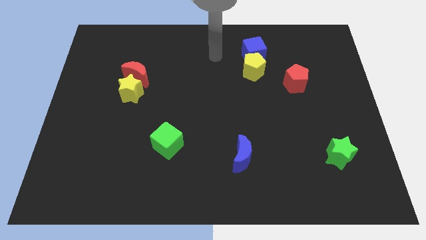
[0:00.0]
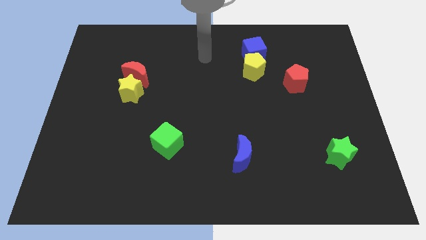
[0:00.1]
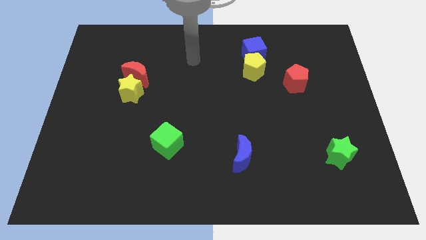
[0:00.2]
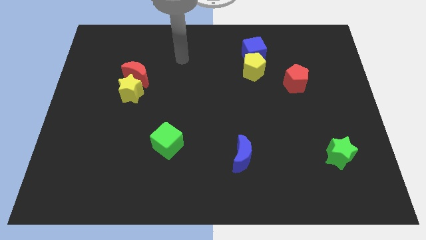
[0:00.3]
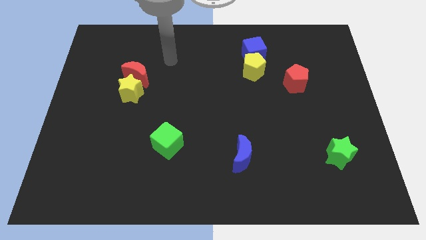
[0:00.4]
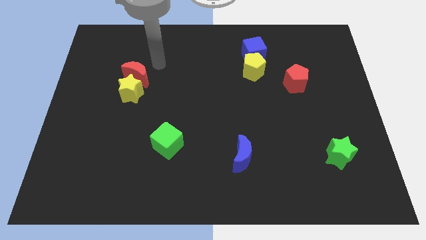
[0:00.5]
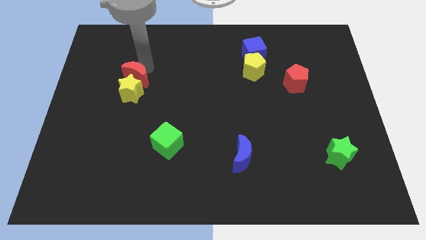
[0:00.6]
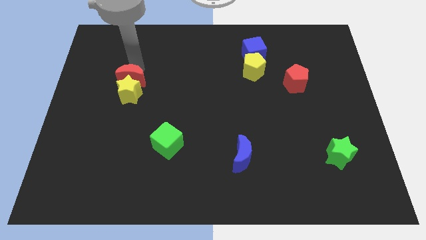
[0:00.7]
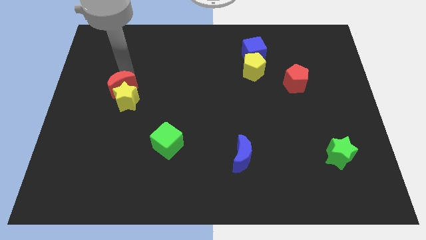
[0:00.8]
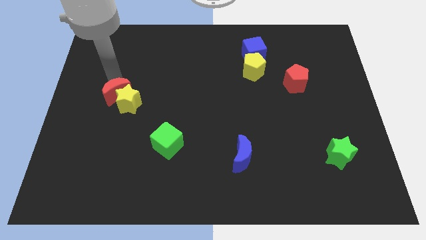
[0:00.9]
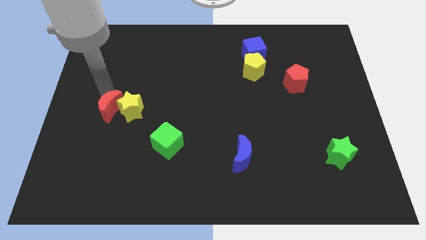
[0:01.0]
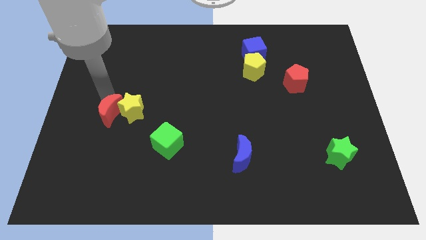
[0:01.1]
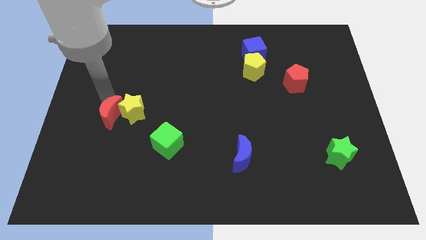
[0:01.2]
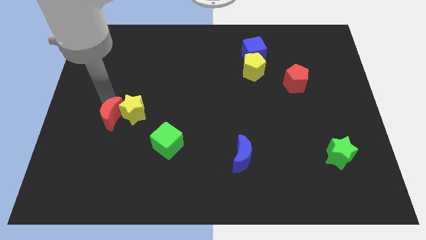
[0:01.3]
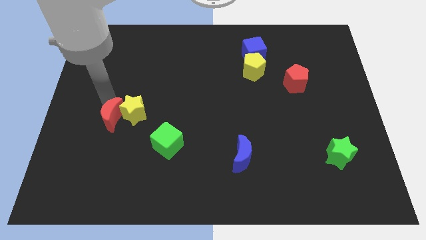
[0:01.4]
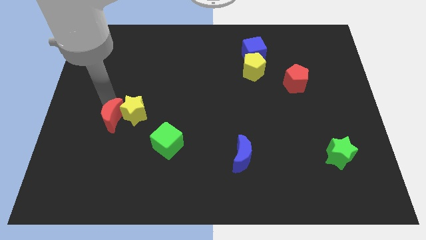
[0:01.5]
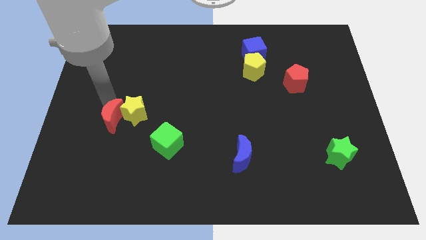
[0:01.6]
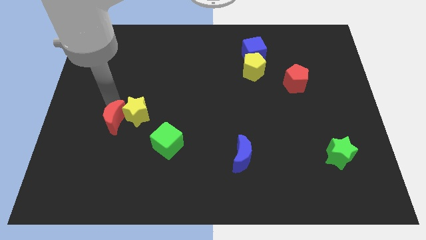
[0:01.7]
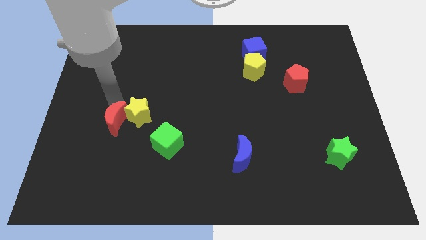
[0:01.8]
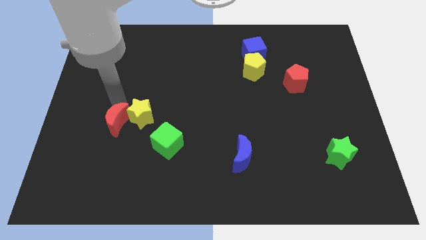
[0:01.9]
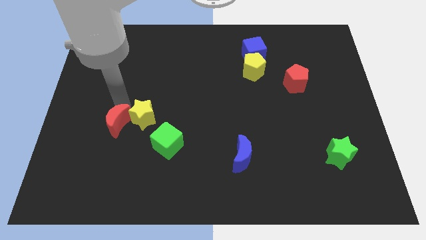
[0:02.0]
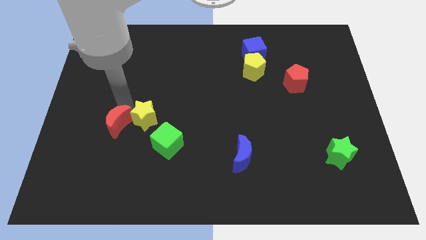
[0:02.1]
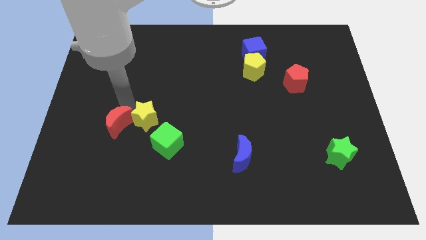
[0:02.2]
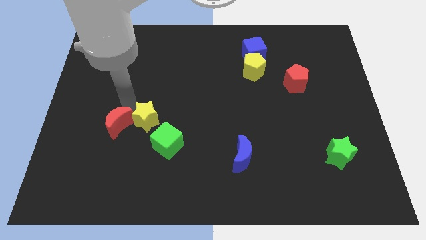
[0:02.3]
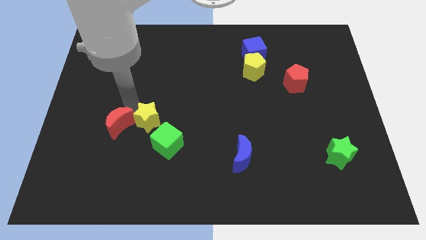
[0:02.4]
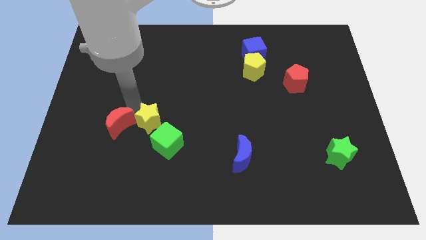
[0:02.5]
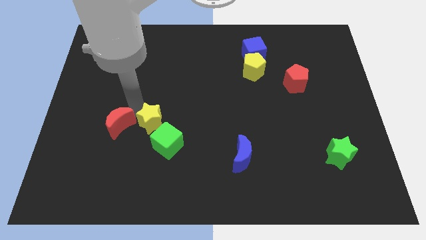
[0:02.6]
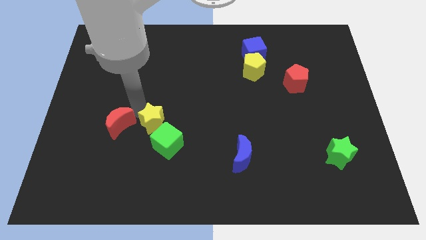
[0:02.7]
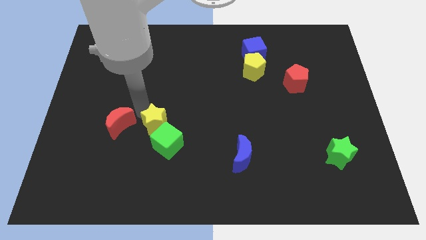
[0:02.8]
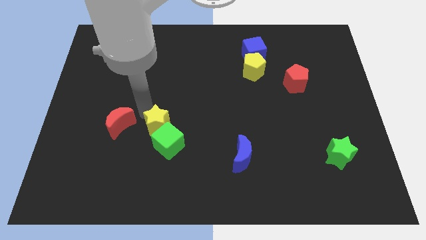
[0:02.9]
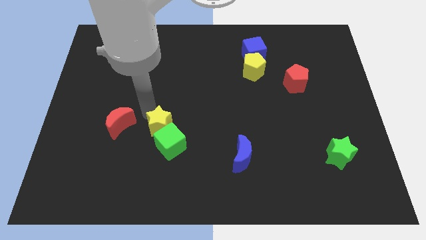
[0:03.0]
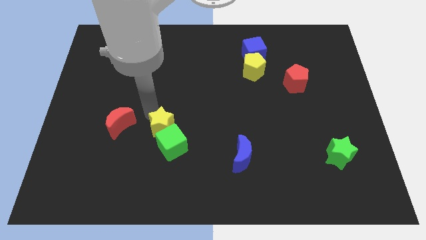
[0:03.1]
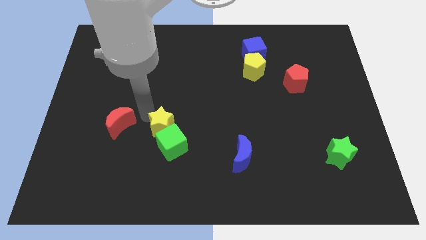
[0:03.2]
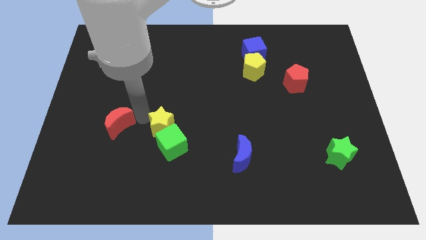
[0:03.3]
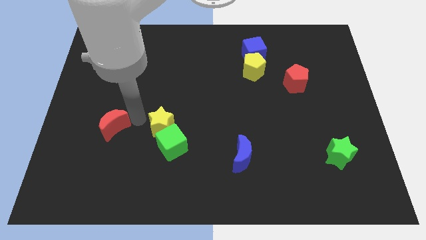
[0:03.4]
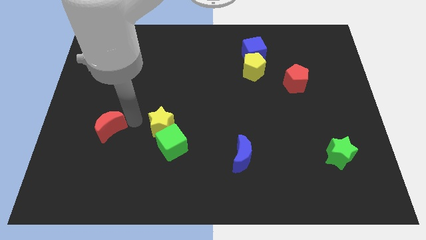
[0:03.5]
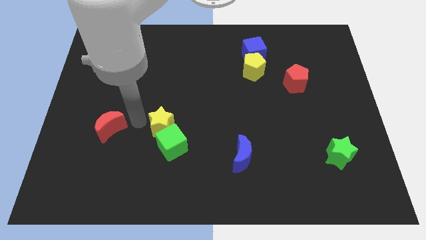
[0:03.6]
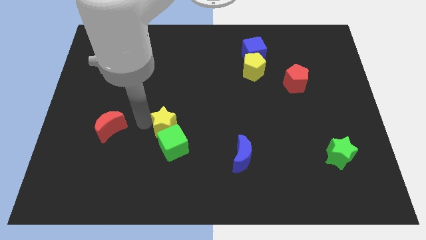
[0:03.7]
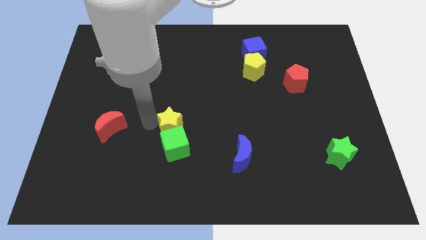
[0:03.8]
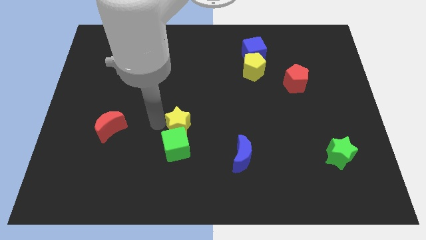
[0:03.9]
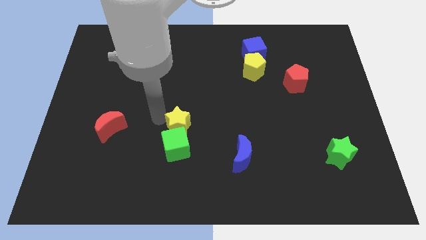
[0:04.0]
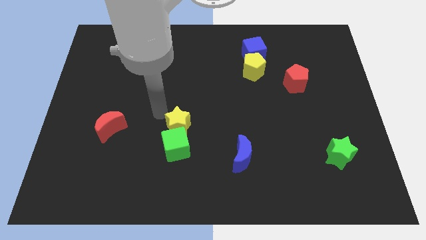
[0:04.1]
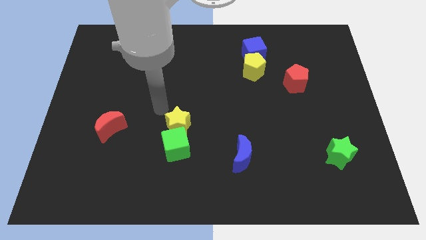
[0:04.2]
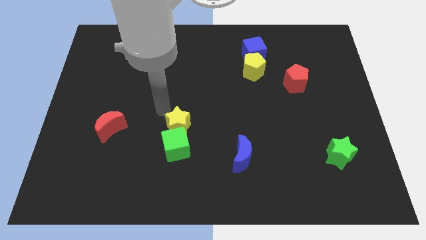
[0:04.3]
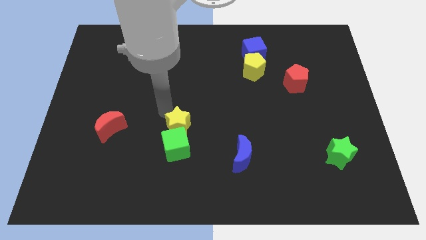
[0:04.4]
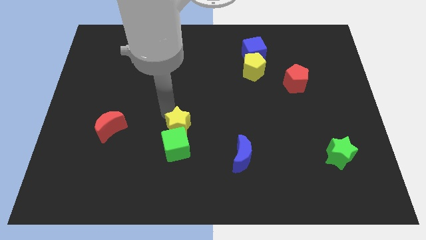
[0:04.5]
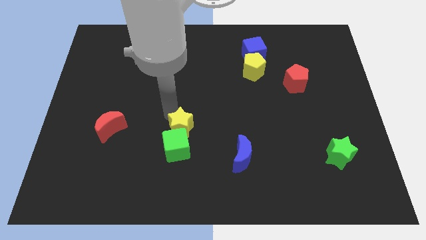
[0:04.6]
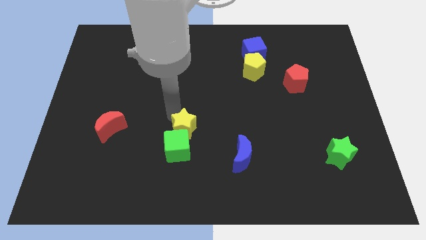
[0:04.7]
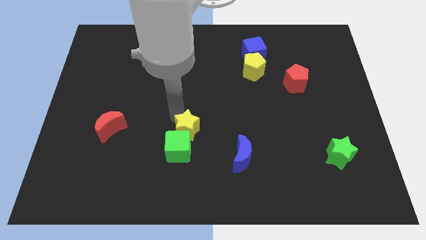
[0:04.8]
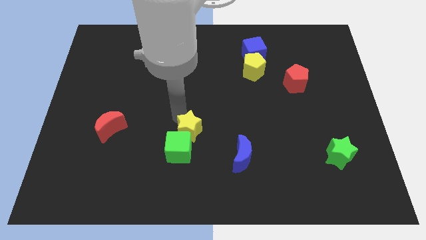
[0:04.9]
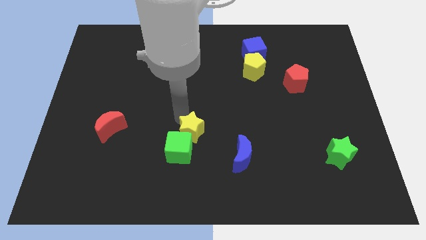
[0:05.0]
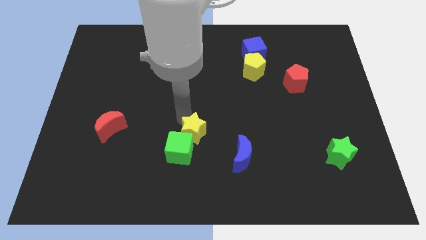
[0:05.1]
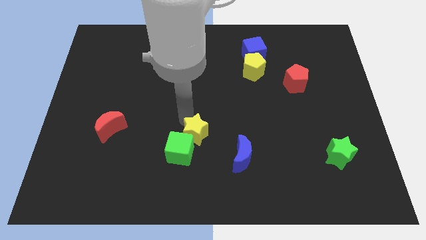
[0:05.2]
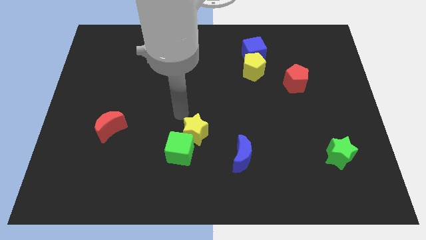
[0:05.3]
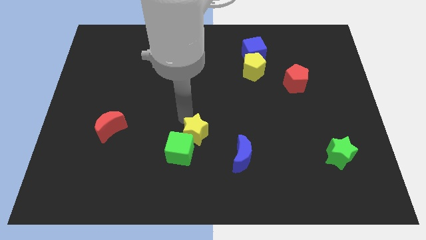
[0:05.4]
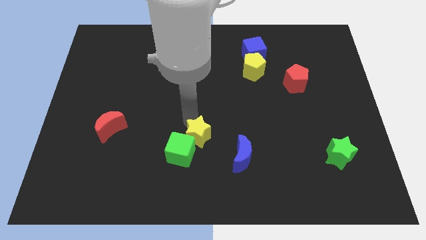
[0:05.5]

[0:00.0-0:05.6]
slide the yellow star downwards and right diagonally

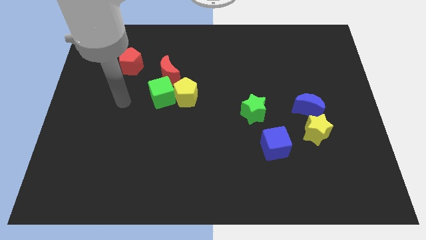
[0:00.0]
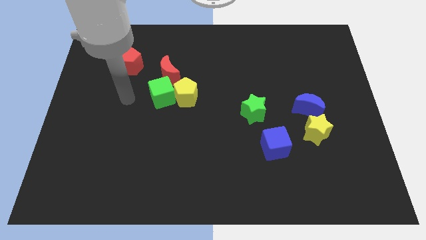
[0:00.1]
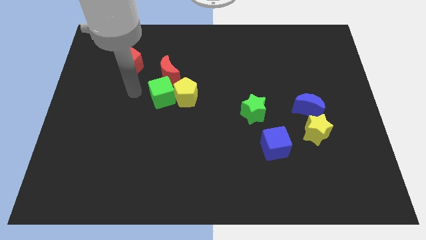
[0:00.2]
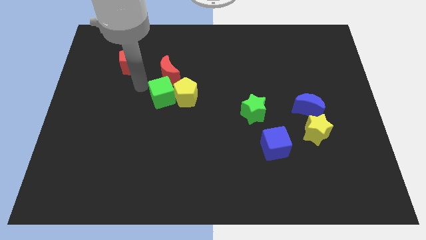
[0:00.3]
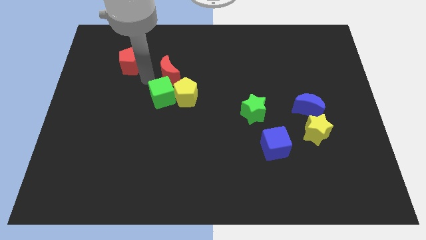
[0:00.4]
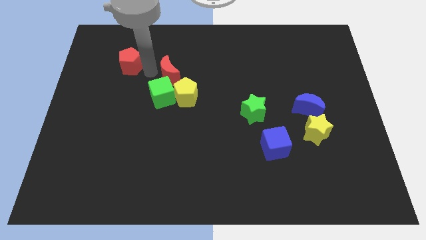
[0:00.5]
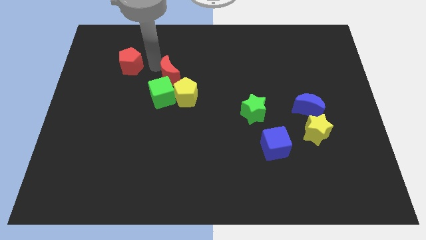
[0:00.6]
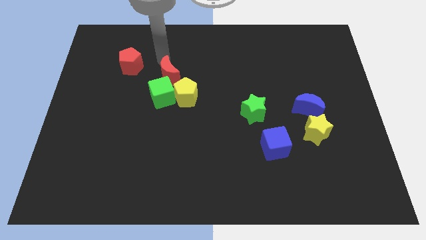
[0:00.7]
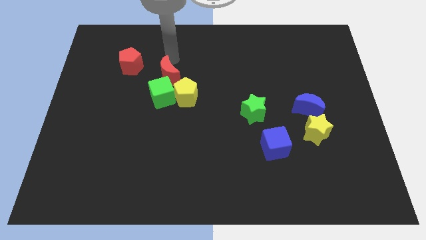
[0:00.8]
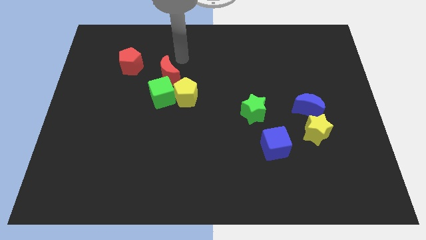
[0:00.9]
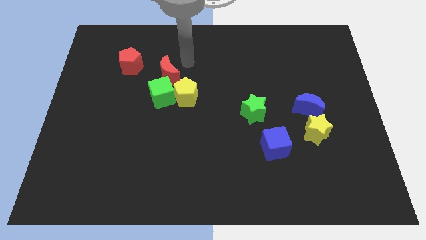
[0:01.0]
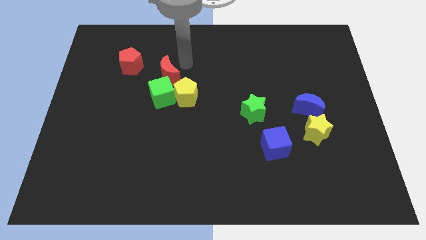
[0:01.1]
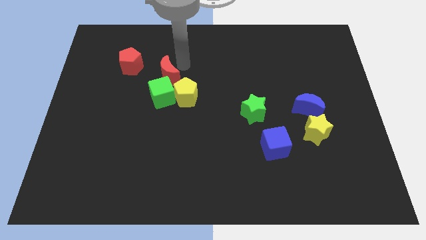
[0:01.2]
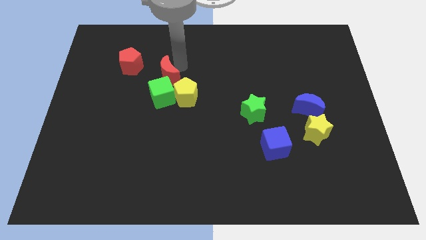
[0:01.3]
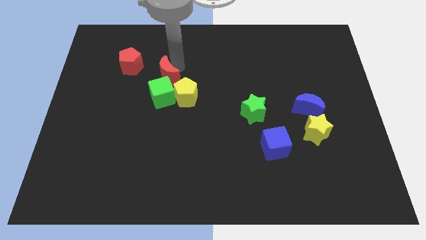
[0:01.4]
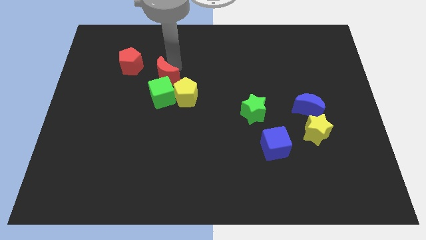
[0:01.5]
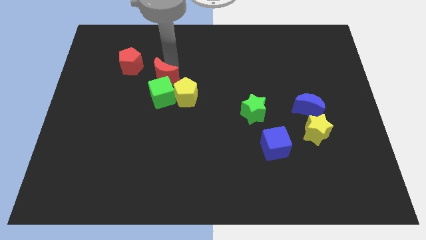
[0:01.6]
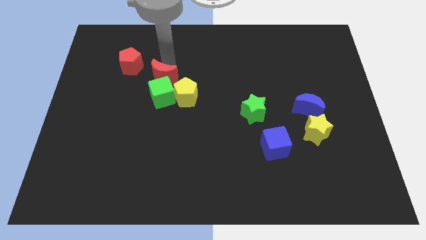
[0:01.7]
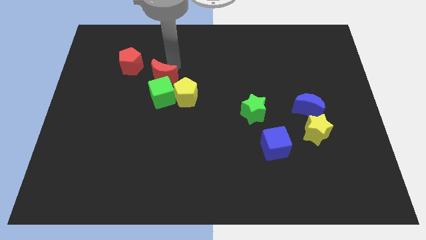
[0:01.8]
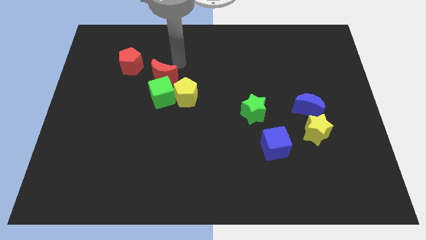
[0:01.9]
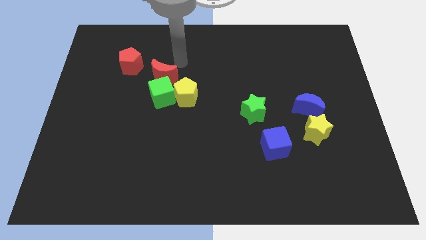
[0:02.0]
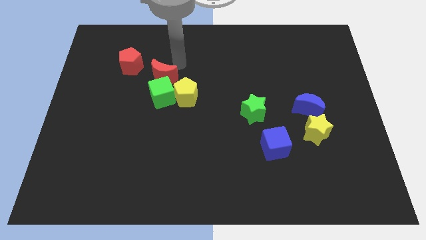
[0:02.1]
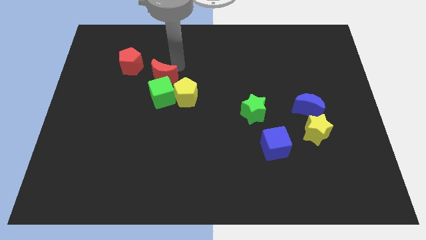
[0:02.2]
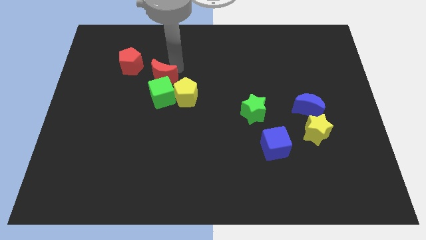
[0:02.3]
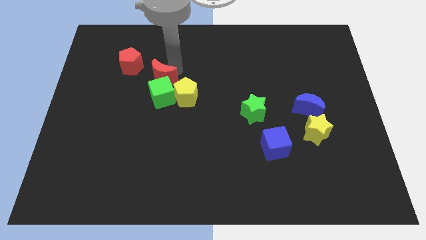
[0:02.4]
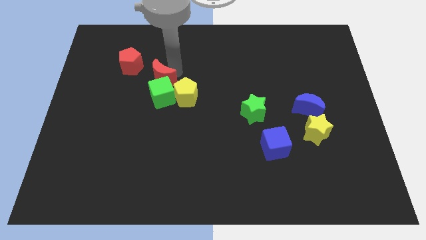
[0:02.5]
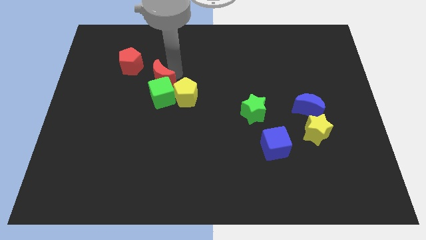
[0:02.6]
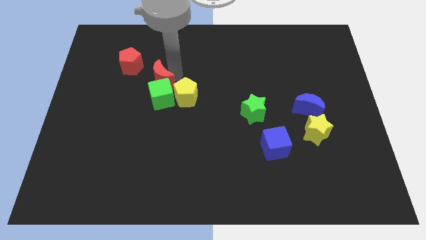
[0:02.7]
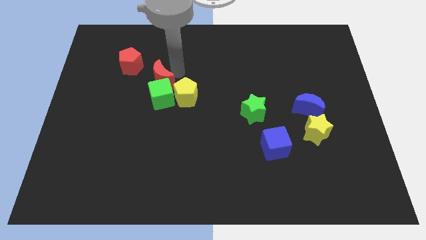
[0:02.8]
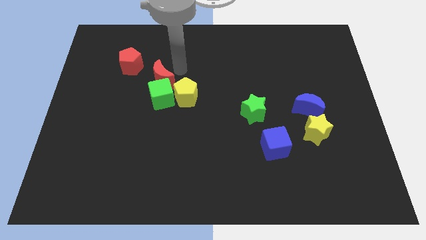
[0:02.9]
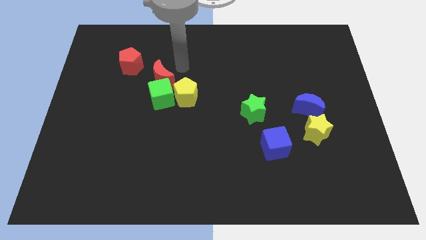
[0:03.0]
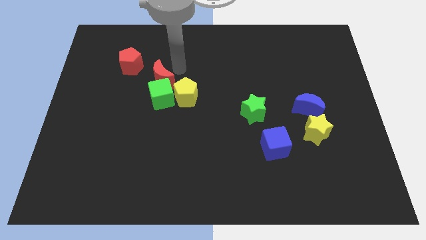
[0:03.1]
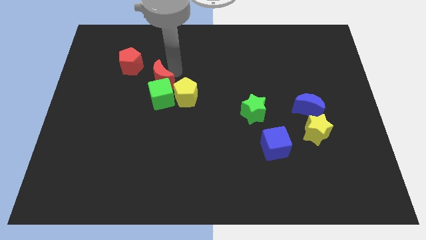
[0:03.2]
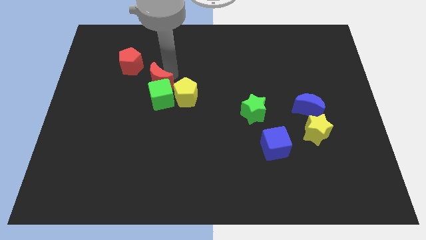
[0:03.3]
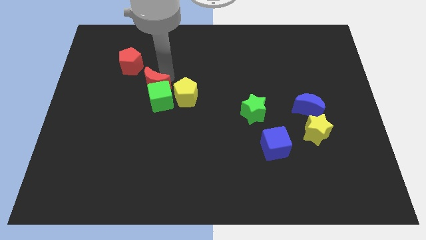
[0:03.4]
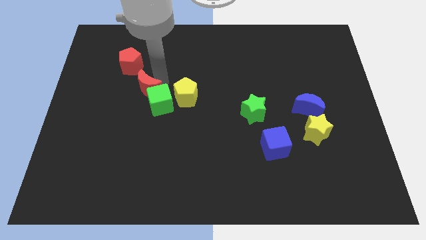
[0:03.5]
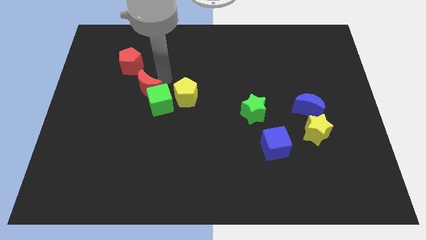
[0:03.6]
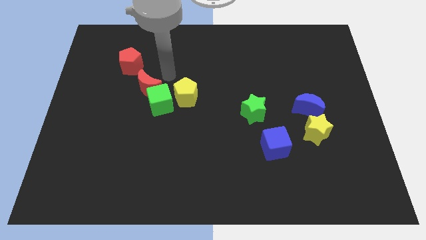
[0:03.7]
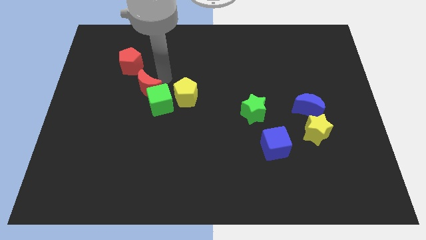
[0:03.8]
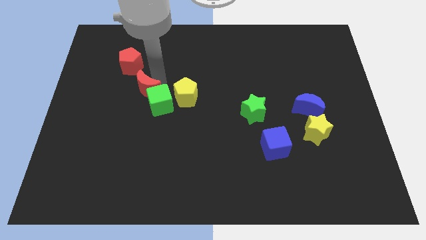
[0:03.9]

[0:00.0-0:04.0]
move the red moon diagonally downwards and to the left slightly
